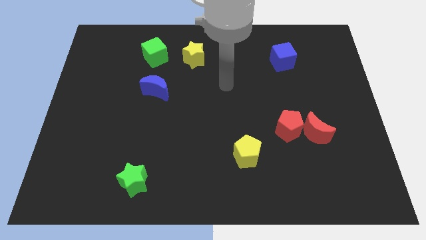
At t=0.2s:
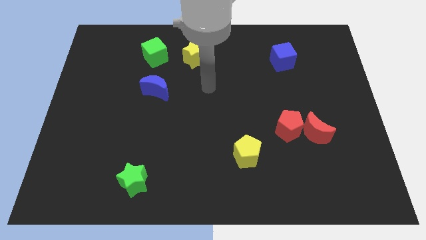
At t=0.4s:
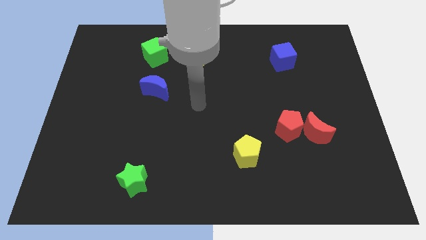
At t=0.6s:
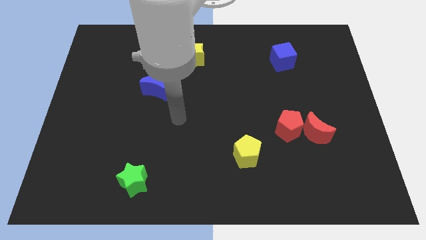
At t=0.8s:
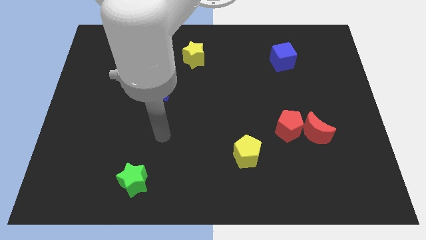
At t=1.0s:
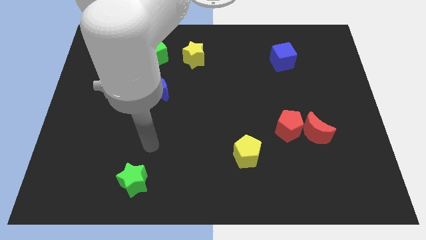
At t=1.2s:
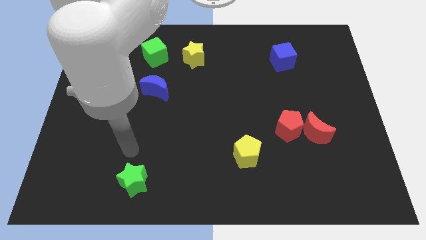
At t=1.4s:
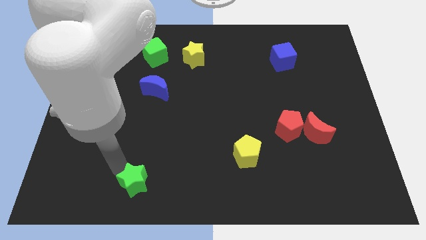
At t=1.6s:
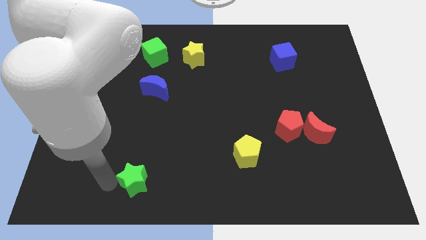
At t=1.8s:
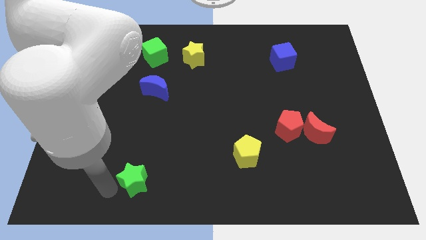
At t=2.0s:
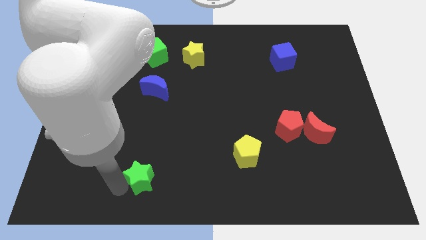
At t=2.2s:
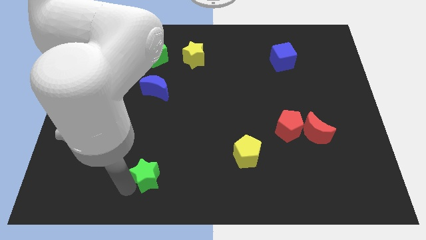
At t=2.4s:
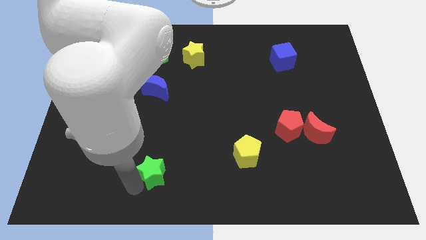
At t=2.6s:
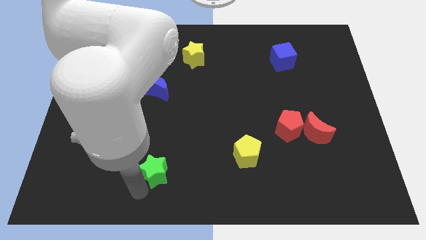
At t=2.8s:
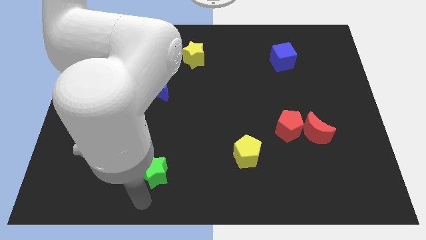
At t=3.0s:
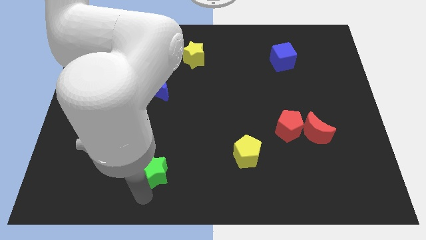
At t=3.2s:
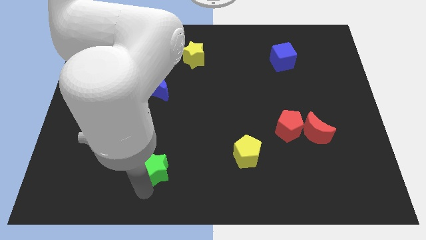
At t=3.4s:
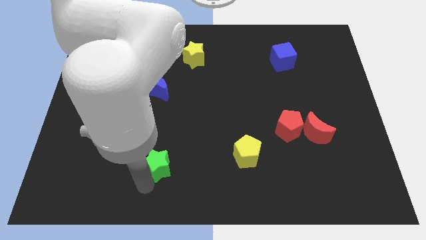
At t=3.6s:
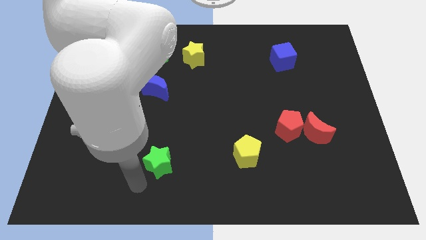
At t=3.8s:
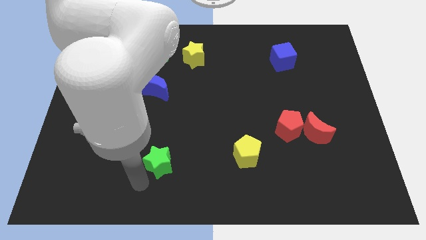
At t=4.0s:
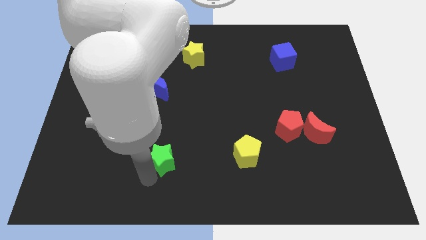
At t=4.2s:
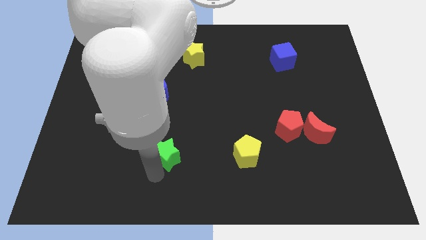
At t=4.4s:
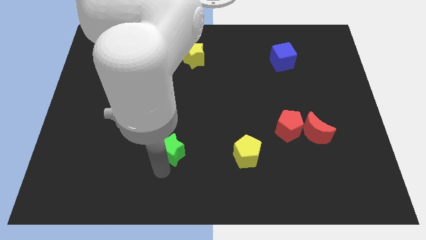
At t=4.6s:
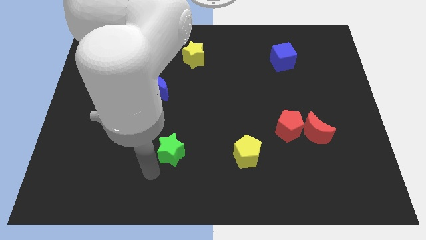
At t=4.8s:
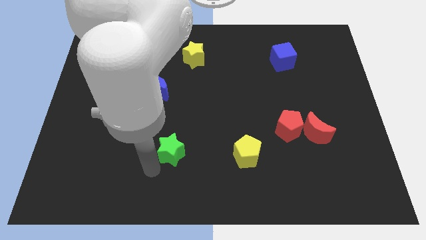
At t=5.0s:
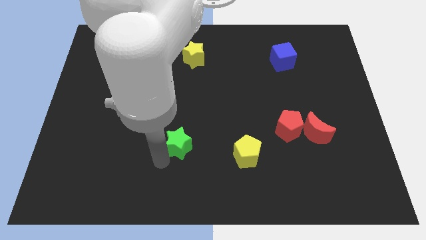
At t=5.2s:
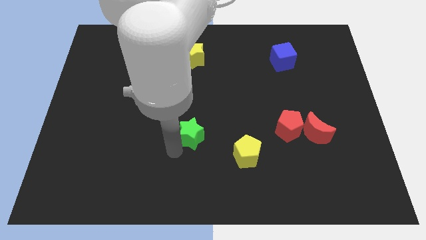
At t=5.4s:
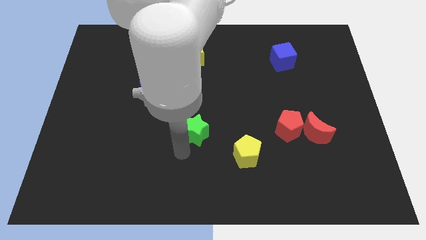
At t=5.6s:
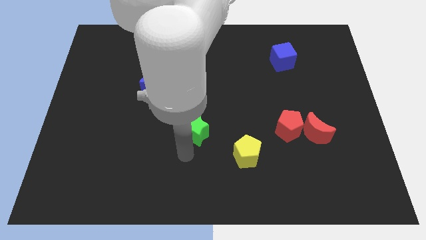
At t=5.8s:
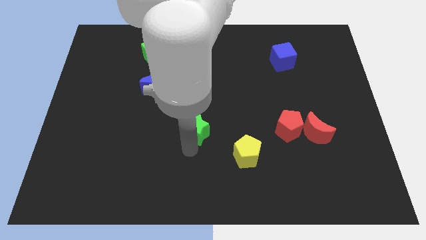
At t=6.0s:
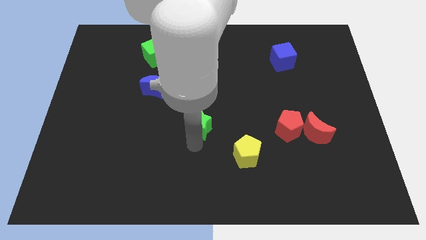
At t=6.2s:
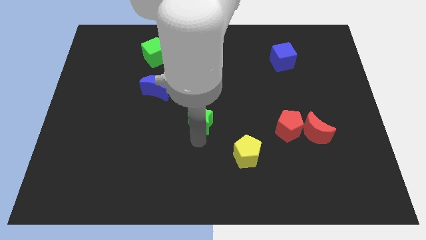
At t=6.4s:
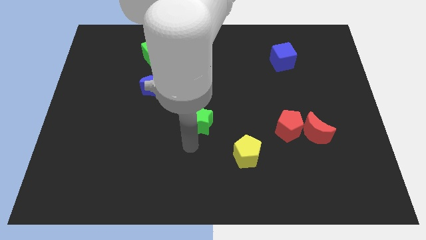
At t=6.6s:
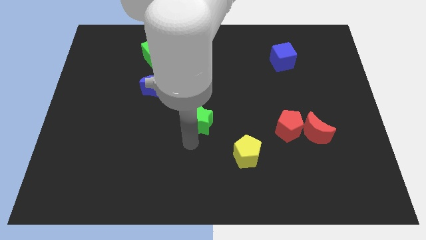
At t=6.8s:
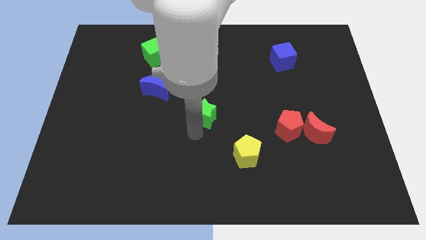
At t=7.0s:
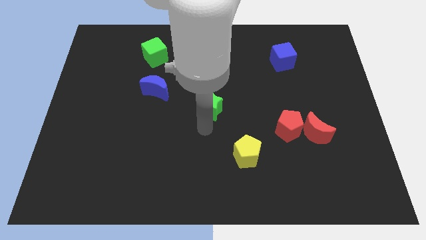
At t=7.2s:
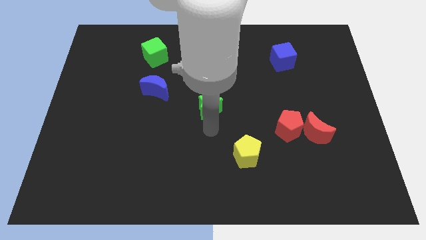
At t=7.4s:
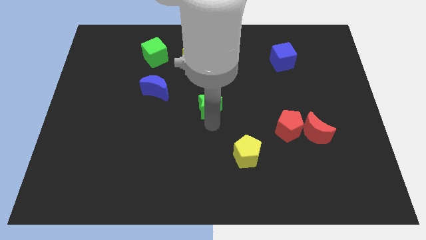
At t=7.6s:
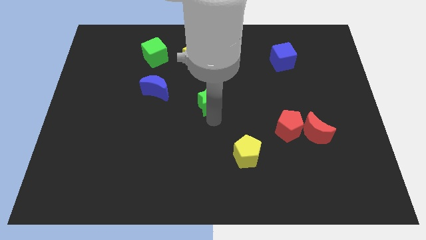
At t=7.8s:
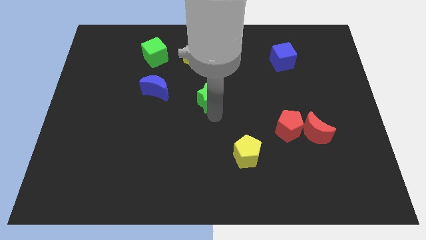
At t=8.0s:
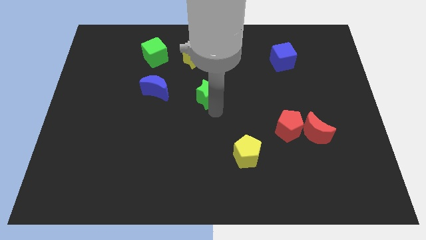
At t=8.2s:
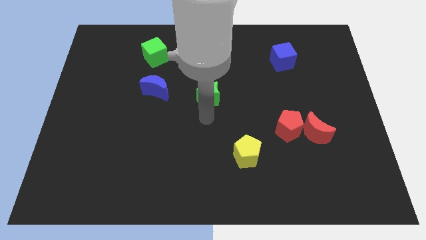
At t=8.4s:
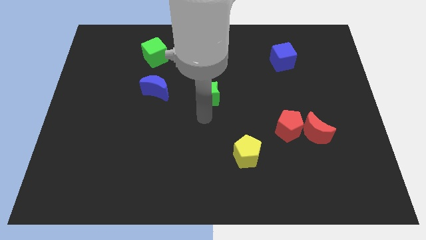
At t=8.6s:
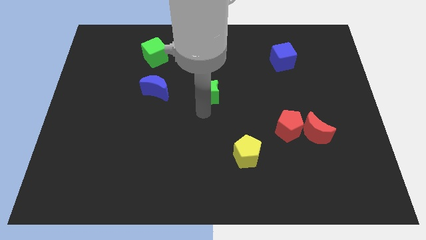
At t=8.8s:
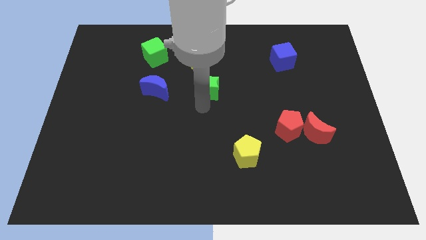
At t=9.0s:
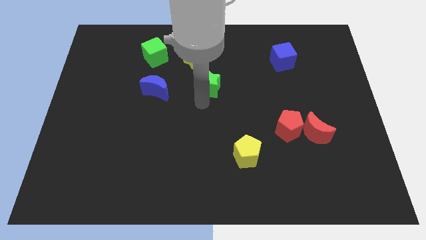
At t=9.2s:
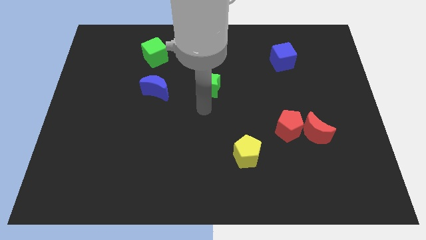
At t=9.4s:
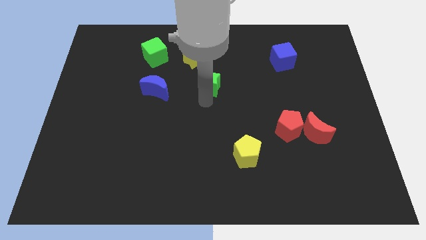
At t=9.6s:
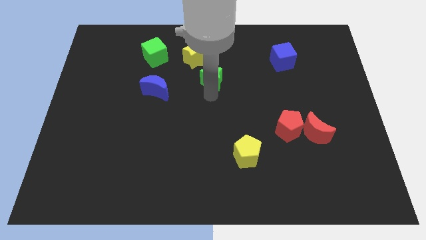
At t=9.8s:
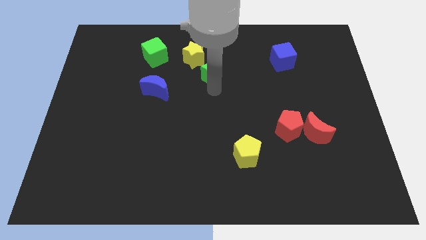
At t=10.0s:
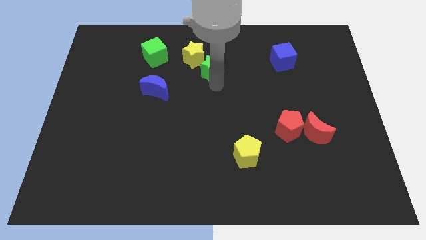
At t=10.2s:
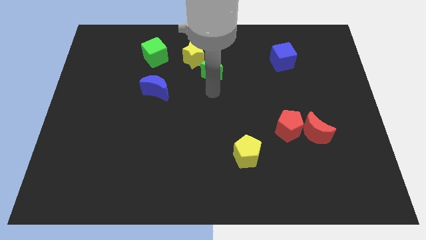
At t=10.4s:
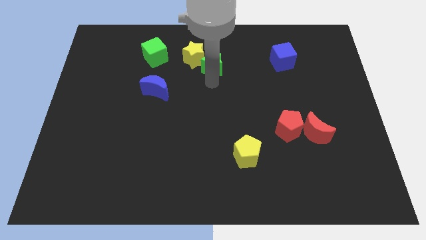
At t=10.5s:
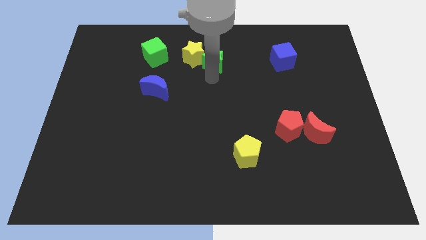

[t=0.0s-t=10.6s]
put the green star to the right side of the green cube

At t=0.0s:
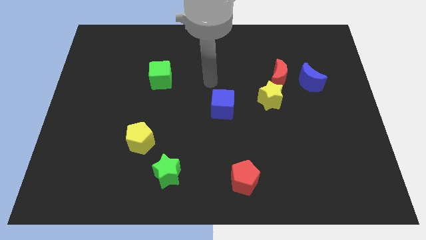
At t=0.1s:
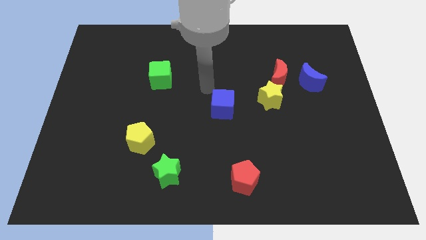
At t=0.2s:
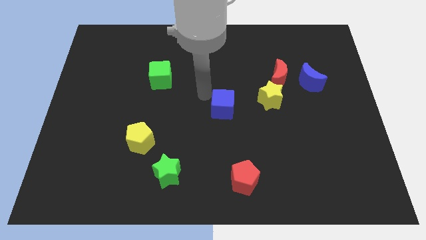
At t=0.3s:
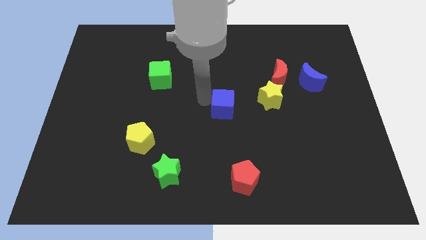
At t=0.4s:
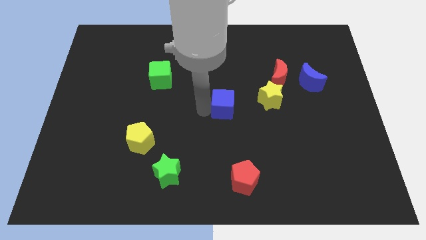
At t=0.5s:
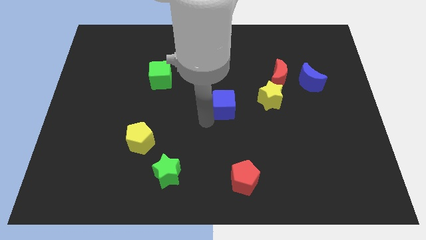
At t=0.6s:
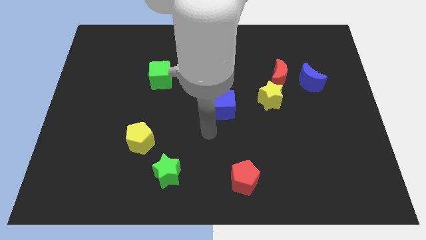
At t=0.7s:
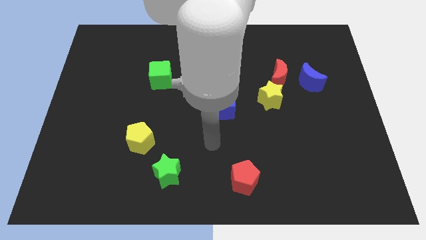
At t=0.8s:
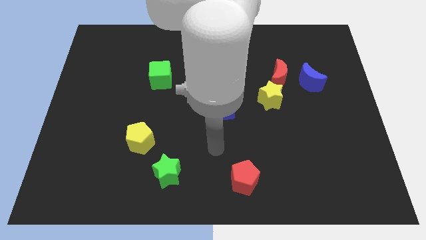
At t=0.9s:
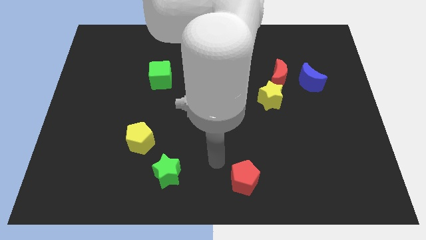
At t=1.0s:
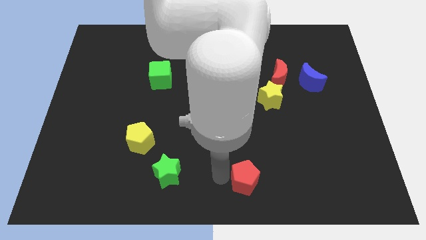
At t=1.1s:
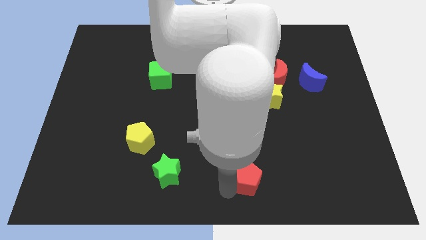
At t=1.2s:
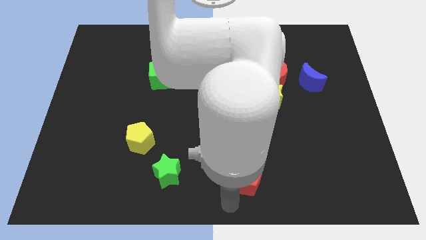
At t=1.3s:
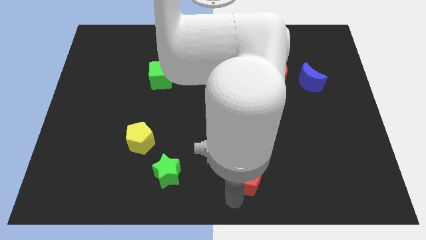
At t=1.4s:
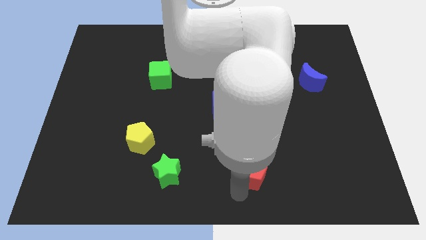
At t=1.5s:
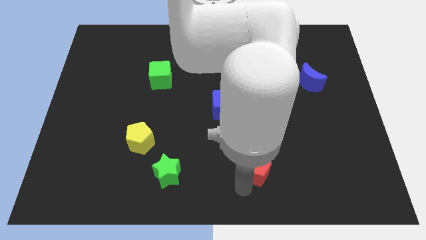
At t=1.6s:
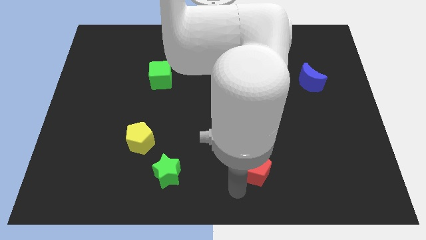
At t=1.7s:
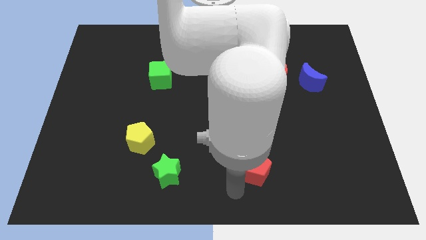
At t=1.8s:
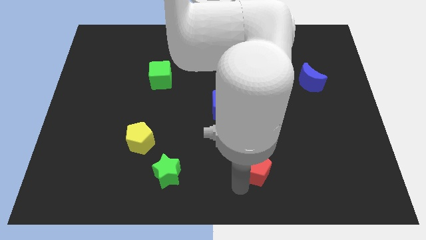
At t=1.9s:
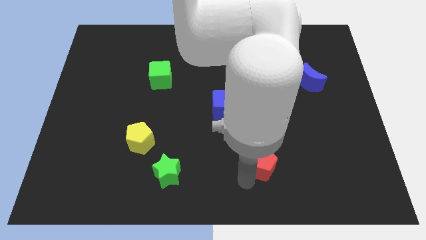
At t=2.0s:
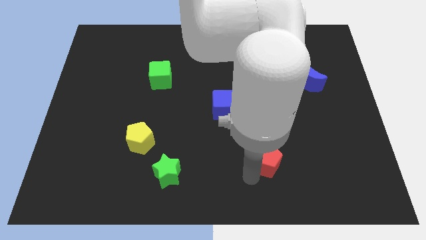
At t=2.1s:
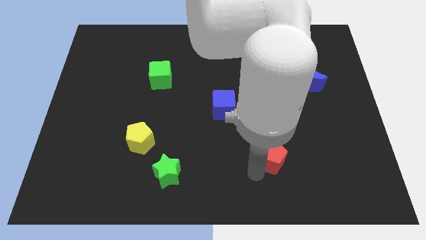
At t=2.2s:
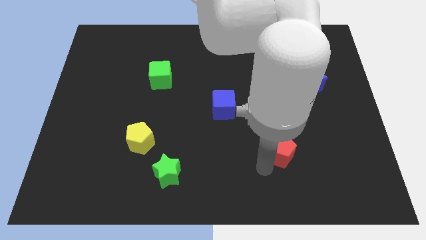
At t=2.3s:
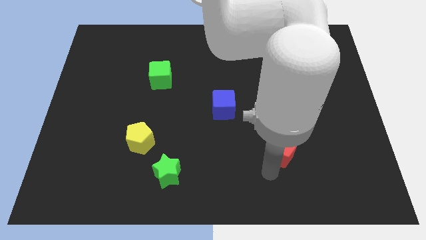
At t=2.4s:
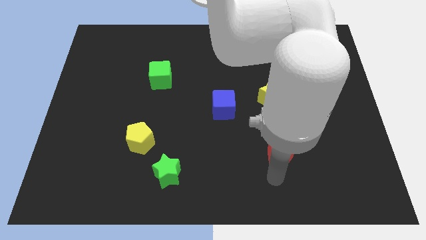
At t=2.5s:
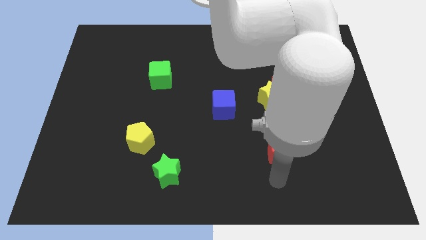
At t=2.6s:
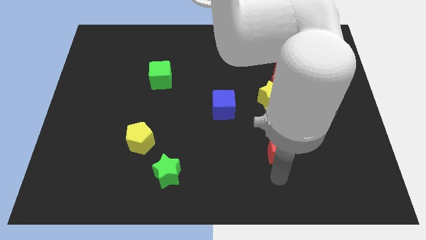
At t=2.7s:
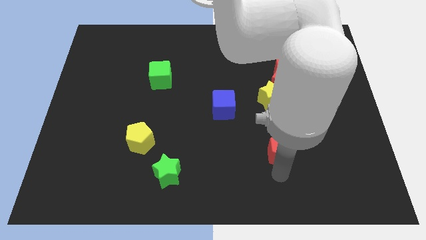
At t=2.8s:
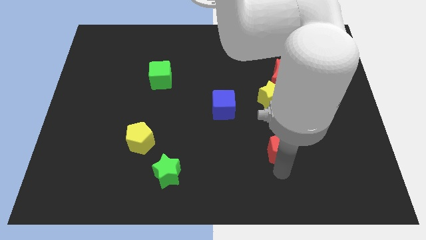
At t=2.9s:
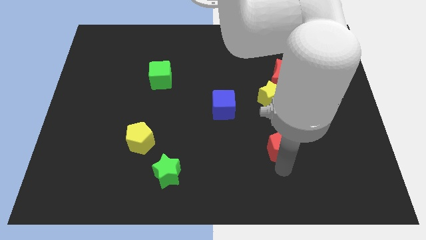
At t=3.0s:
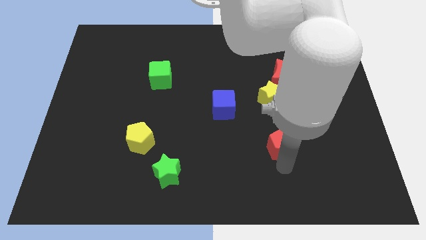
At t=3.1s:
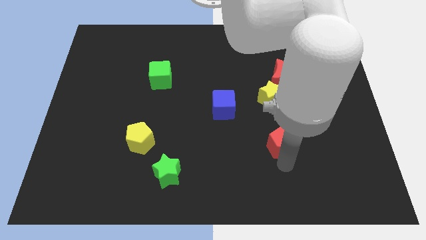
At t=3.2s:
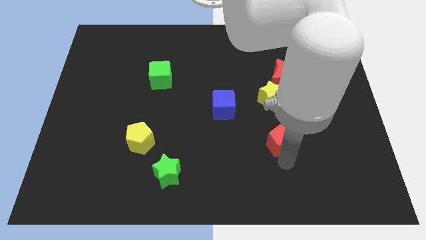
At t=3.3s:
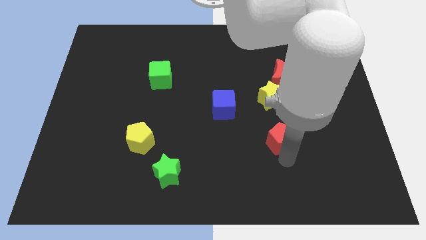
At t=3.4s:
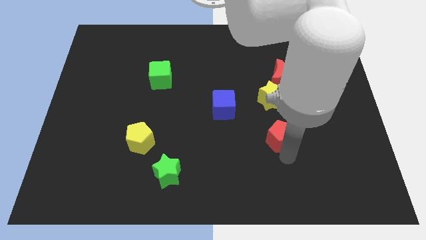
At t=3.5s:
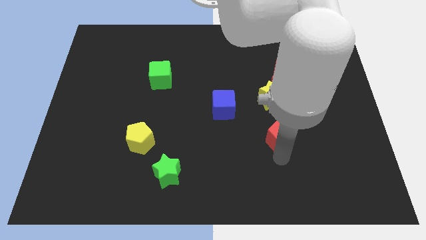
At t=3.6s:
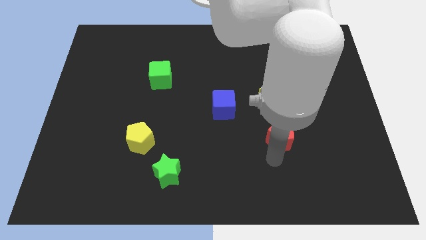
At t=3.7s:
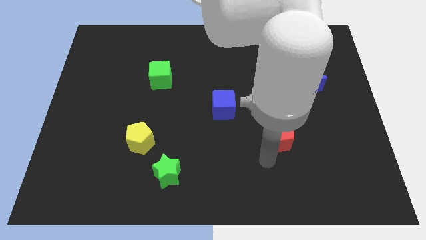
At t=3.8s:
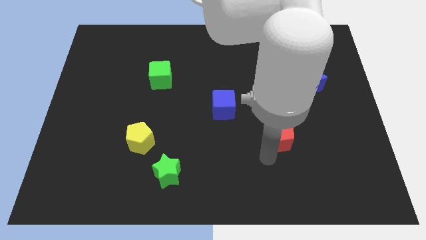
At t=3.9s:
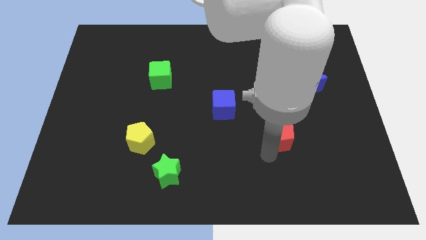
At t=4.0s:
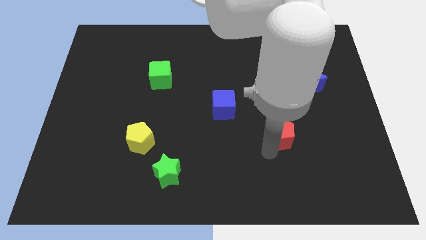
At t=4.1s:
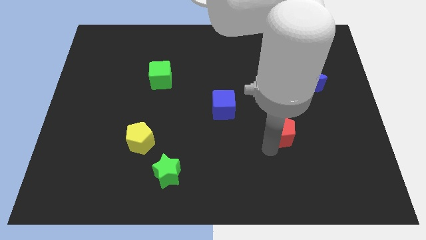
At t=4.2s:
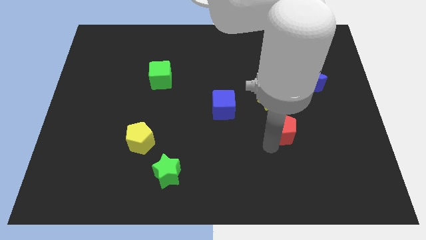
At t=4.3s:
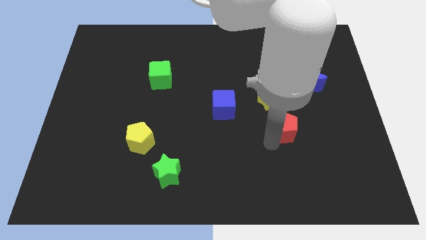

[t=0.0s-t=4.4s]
slide the red pentagon diagonally down and to the right of the yellow star
